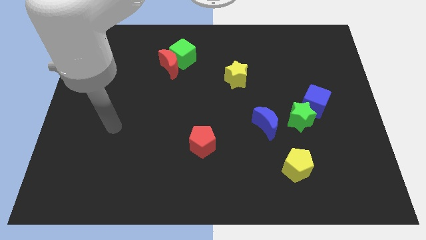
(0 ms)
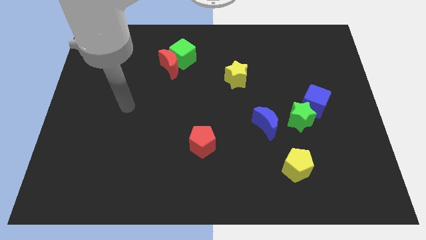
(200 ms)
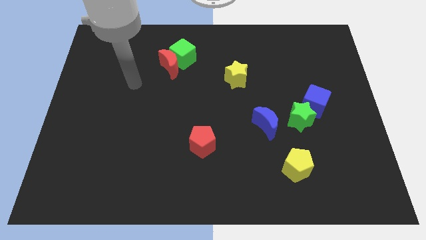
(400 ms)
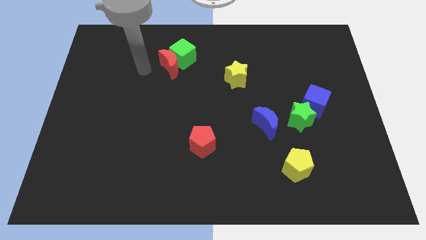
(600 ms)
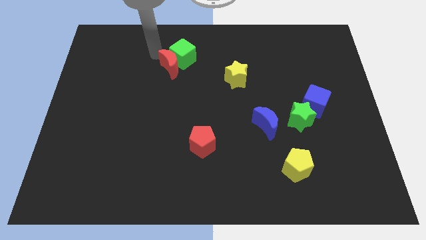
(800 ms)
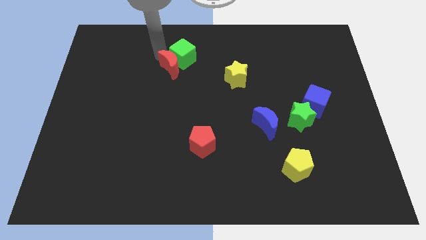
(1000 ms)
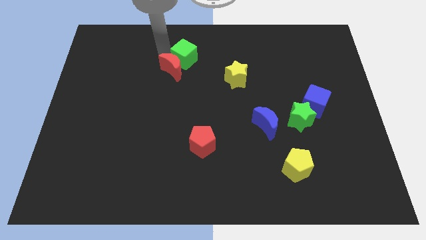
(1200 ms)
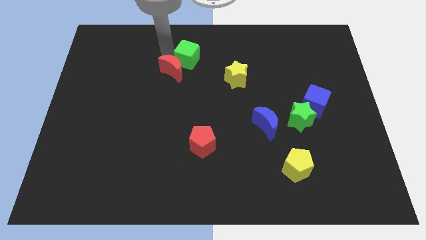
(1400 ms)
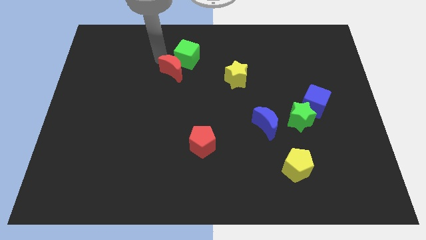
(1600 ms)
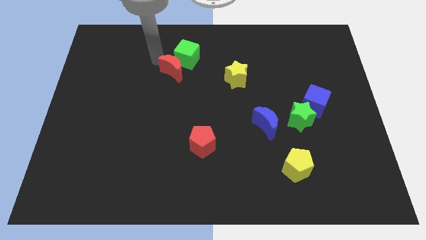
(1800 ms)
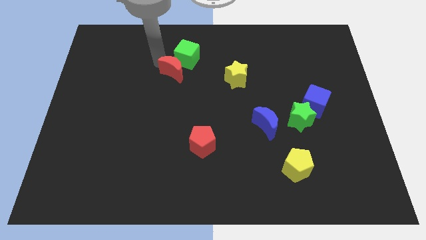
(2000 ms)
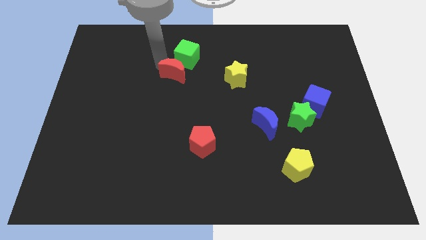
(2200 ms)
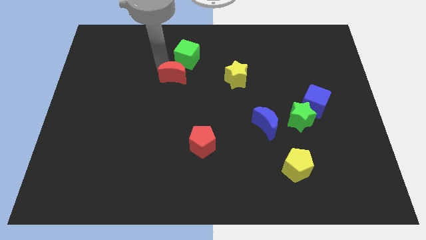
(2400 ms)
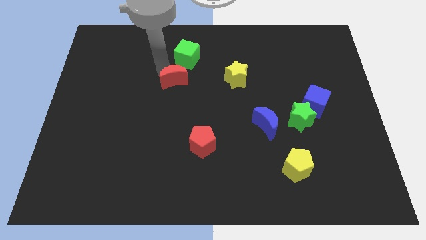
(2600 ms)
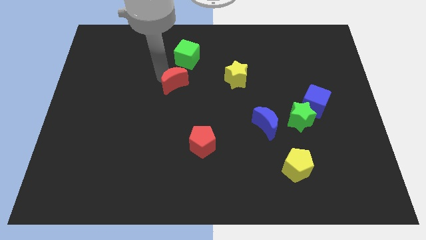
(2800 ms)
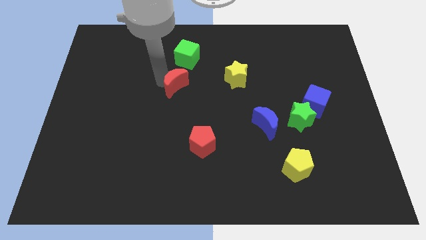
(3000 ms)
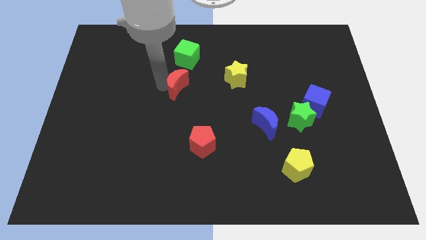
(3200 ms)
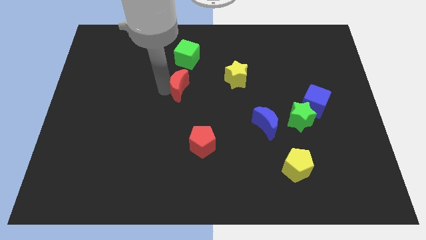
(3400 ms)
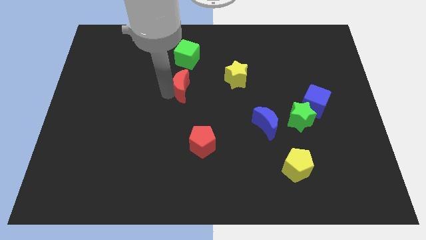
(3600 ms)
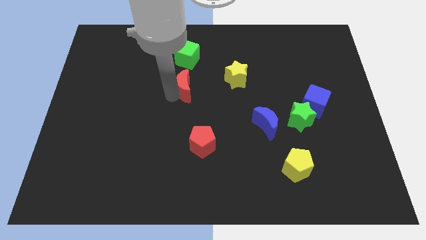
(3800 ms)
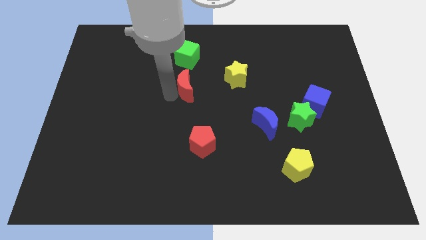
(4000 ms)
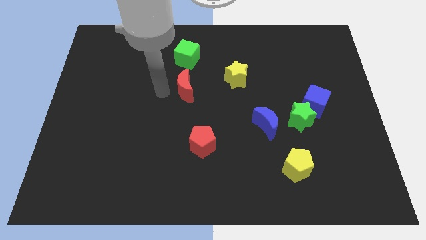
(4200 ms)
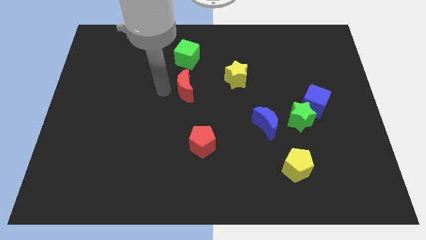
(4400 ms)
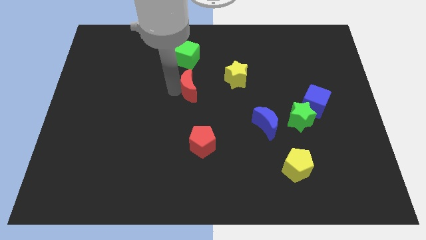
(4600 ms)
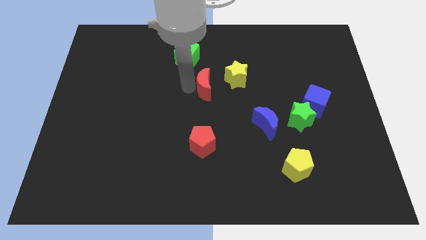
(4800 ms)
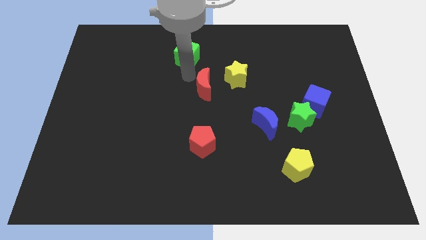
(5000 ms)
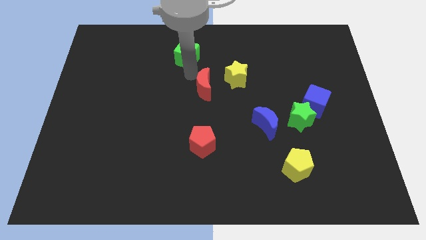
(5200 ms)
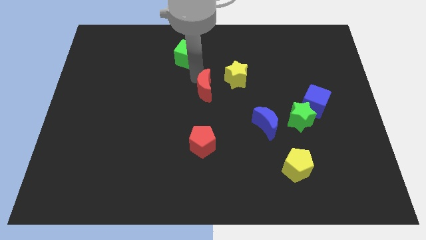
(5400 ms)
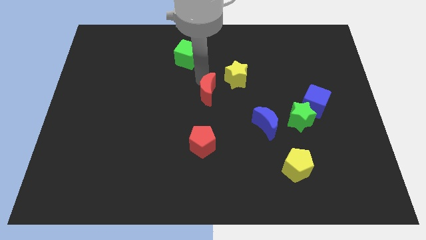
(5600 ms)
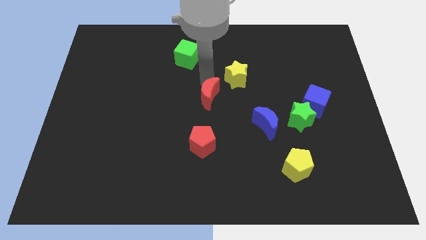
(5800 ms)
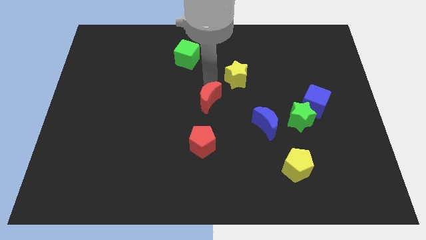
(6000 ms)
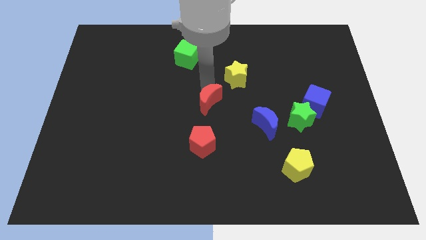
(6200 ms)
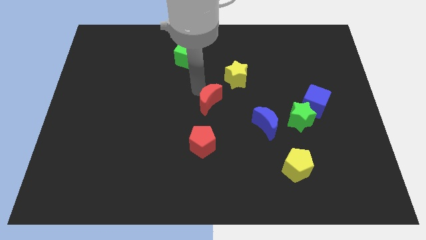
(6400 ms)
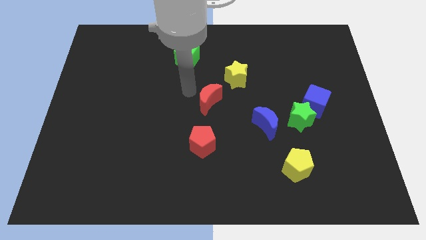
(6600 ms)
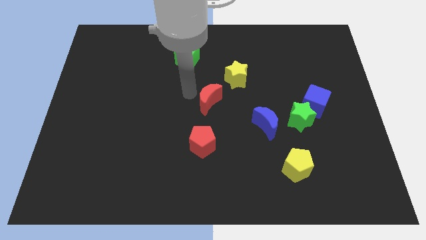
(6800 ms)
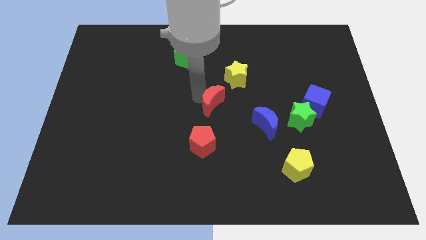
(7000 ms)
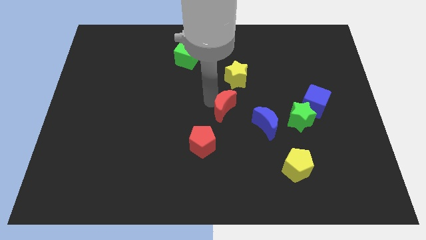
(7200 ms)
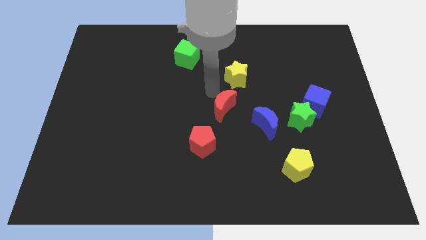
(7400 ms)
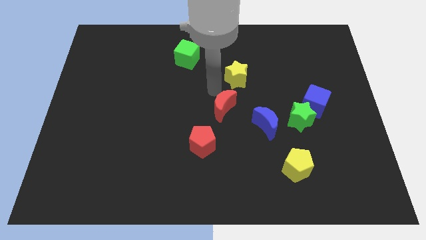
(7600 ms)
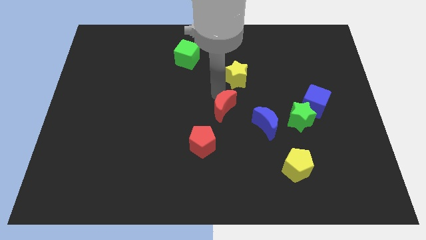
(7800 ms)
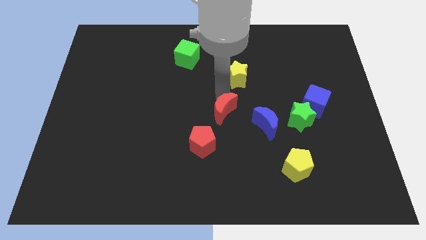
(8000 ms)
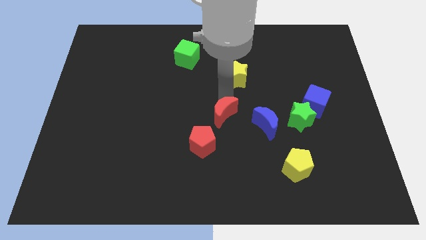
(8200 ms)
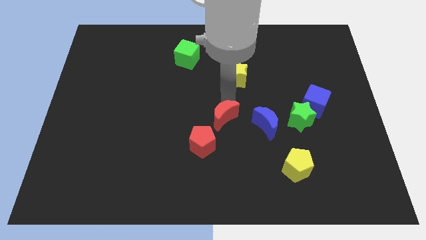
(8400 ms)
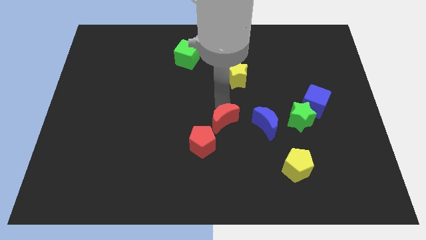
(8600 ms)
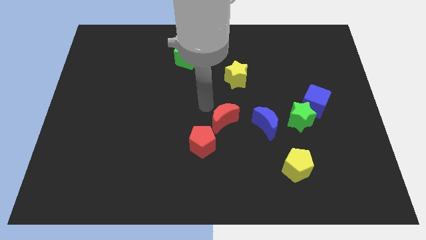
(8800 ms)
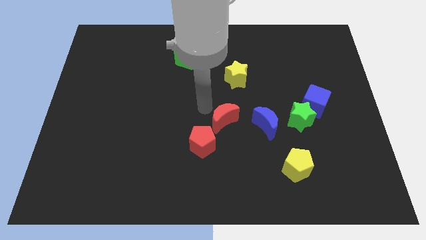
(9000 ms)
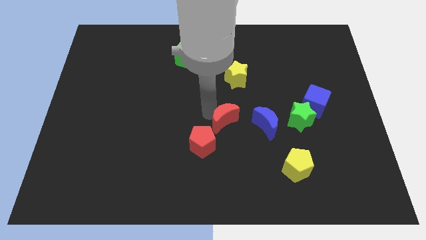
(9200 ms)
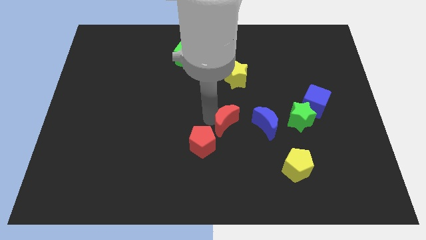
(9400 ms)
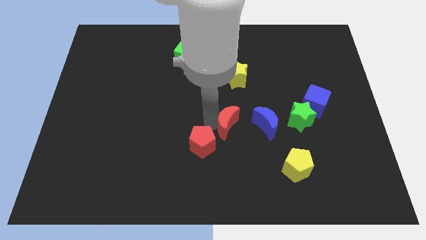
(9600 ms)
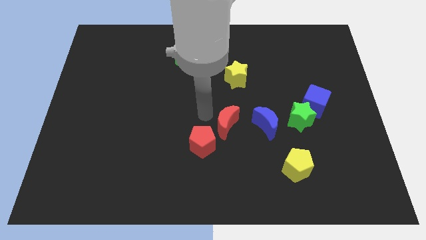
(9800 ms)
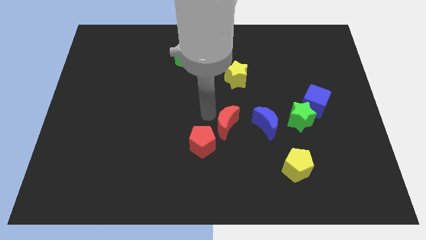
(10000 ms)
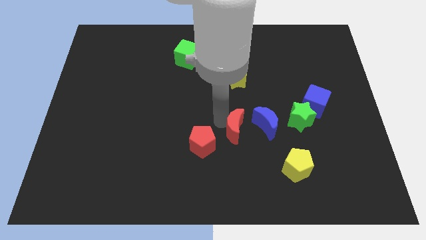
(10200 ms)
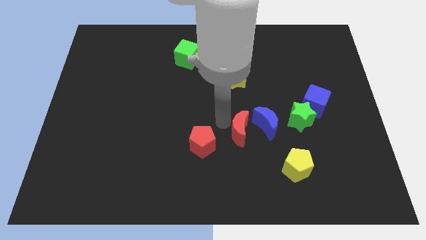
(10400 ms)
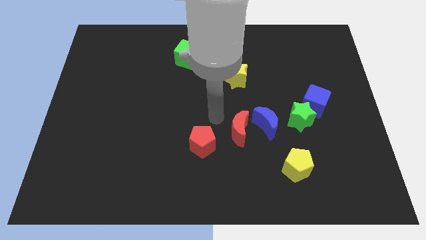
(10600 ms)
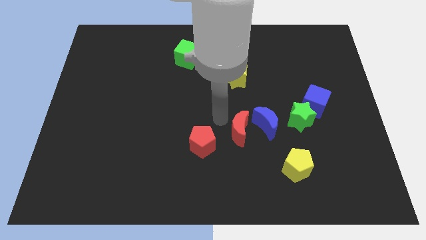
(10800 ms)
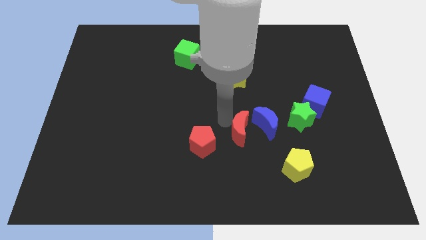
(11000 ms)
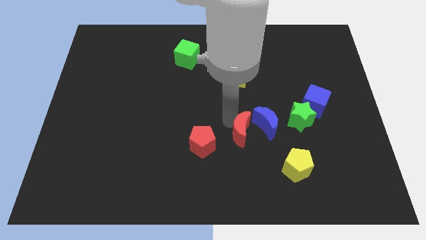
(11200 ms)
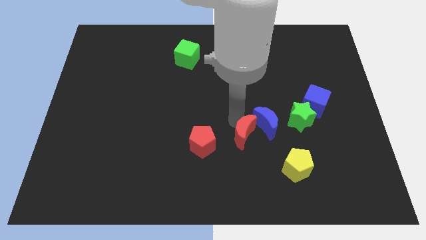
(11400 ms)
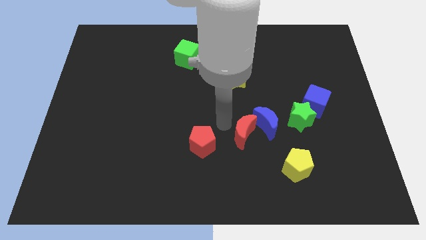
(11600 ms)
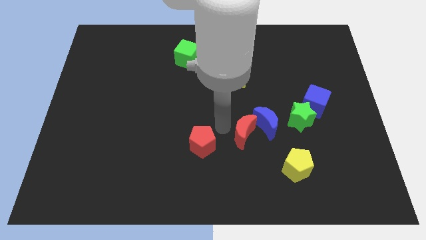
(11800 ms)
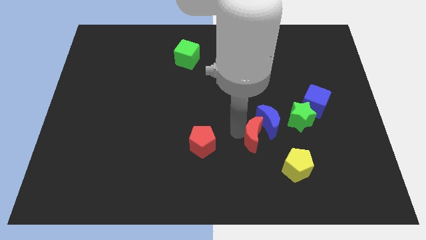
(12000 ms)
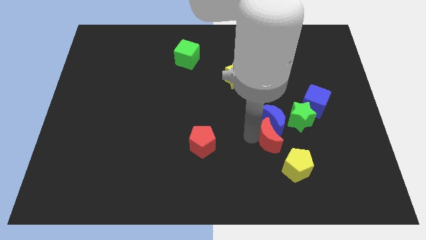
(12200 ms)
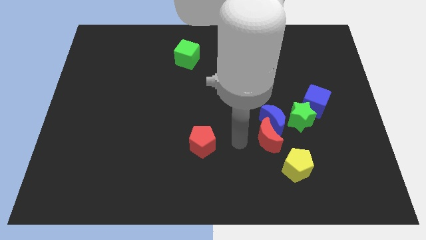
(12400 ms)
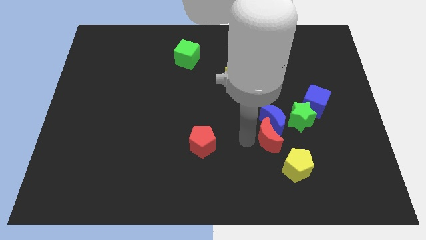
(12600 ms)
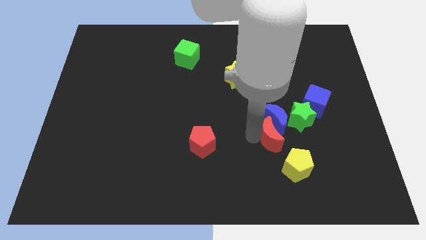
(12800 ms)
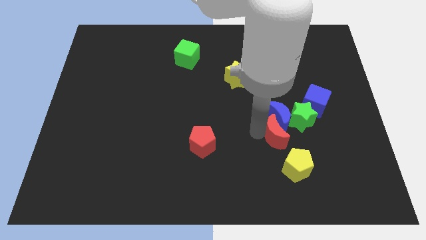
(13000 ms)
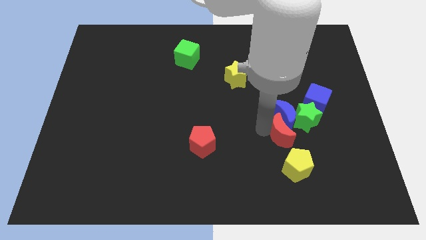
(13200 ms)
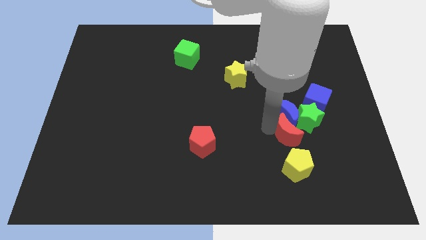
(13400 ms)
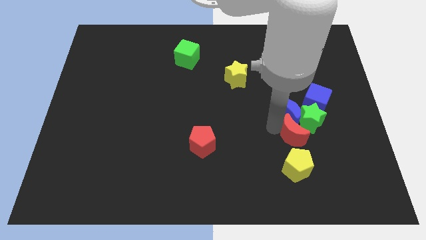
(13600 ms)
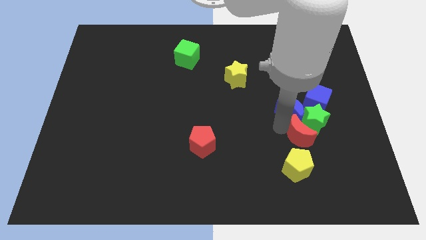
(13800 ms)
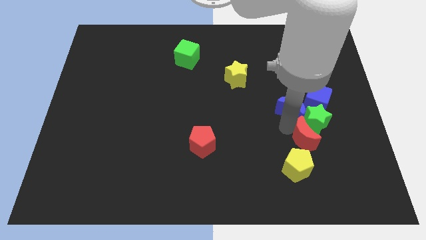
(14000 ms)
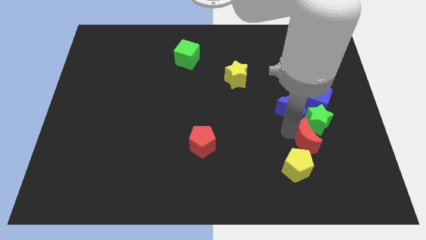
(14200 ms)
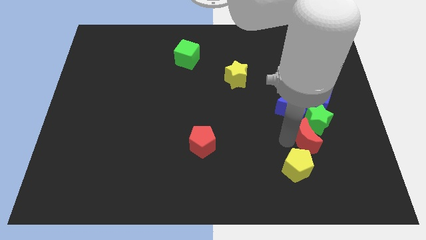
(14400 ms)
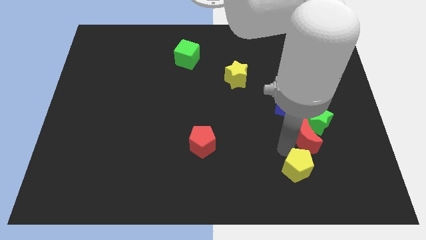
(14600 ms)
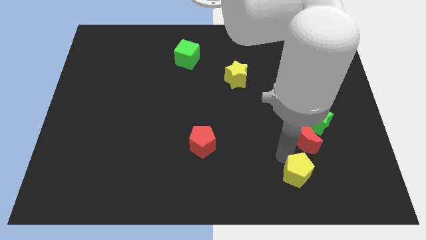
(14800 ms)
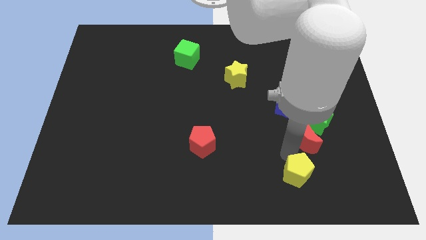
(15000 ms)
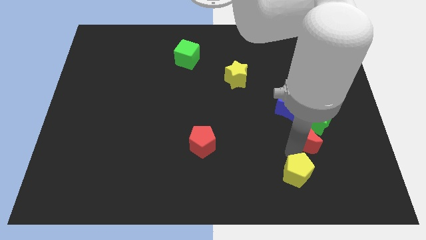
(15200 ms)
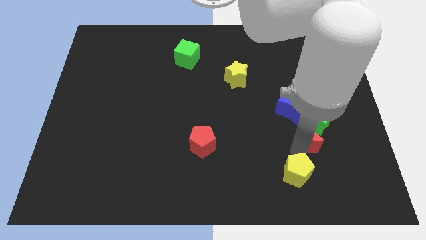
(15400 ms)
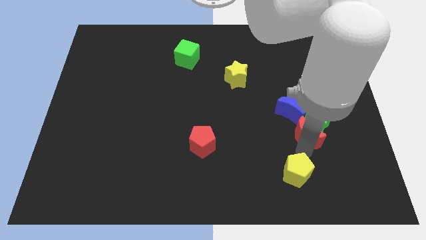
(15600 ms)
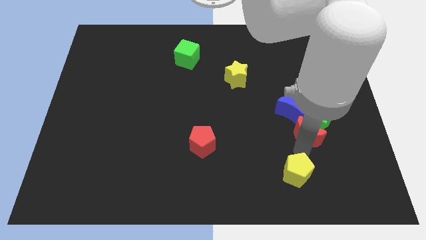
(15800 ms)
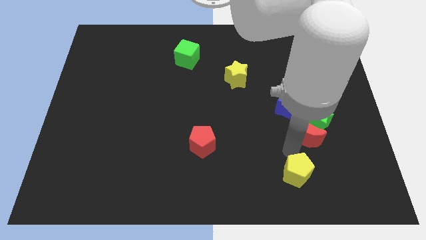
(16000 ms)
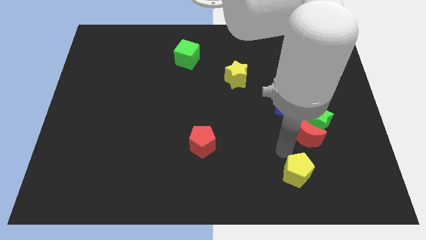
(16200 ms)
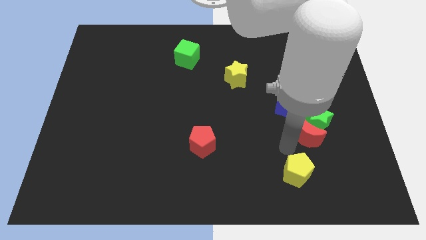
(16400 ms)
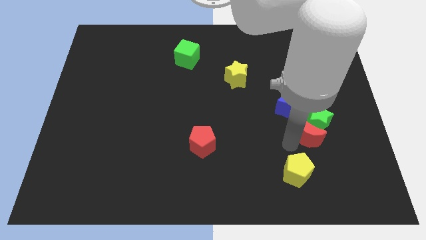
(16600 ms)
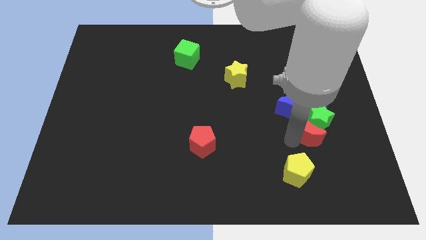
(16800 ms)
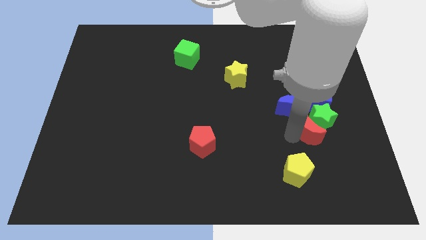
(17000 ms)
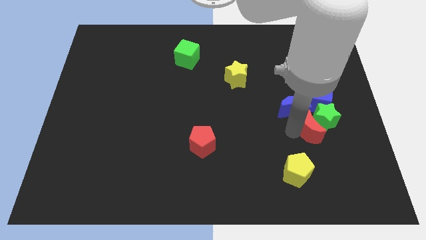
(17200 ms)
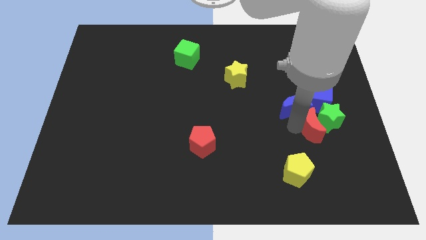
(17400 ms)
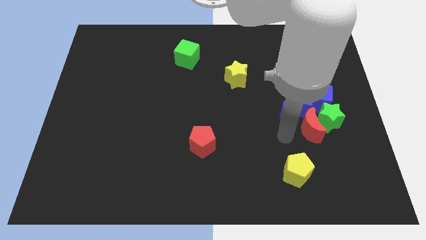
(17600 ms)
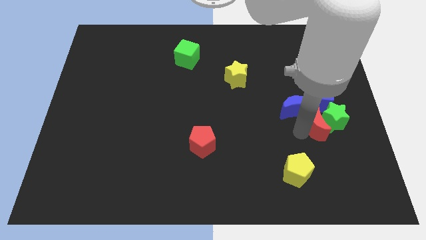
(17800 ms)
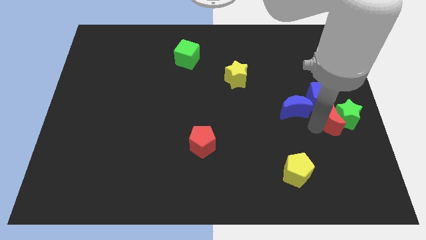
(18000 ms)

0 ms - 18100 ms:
slide the red moon to the bottom right of the blue cube
